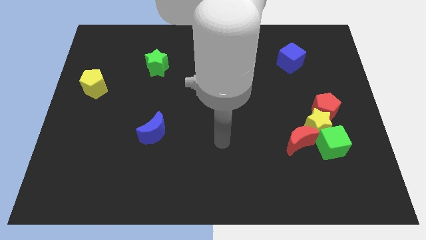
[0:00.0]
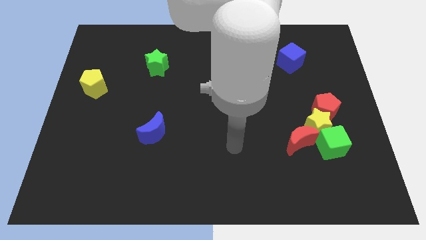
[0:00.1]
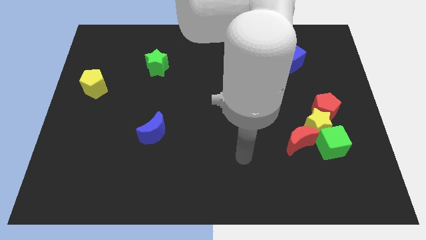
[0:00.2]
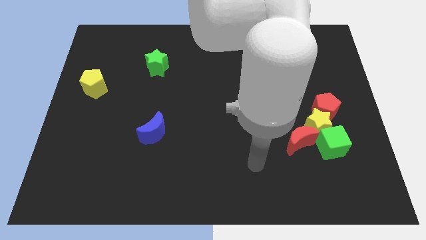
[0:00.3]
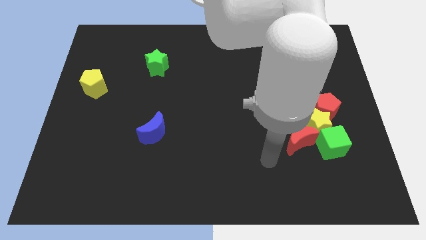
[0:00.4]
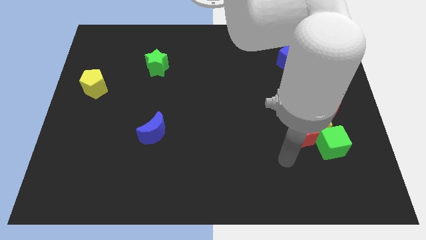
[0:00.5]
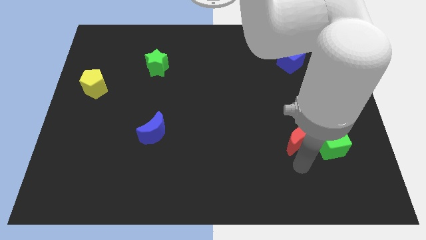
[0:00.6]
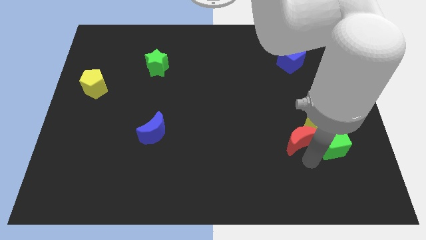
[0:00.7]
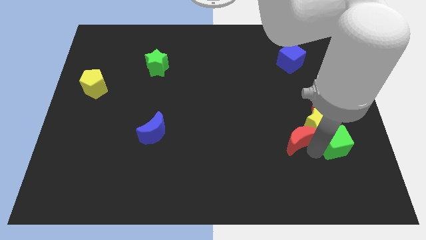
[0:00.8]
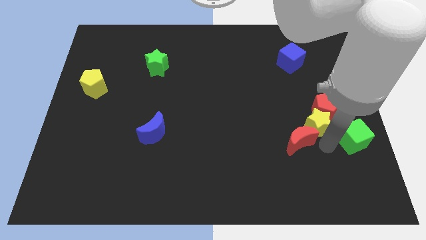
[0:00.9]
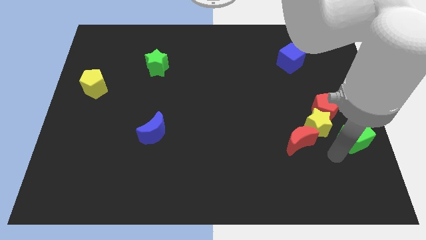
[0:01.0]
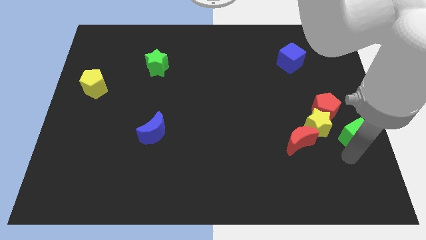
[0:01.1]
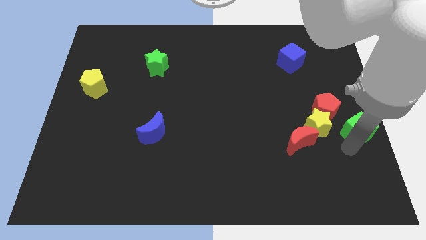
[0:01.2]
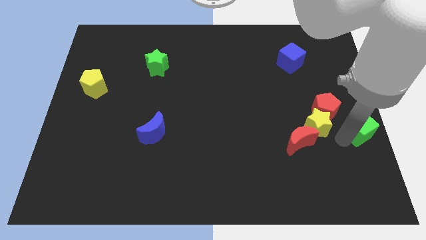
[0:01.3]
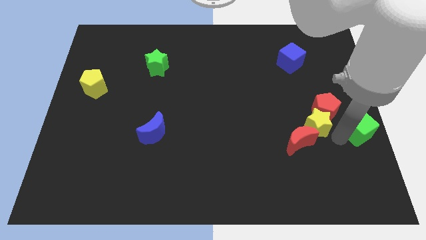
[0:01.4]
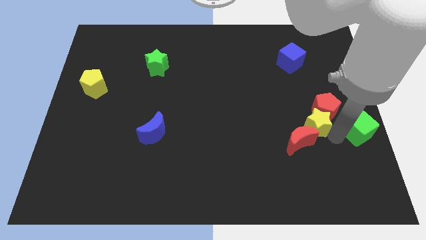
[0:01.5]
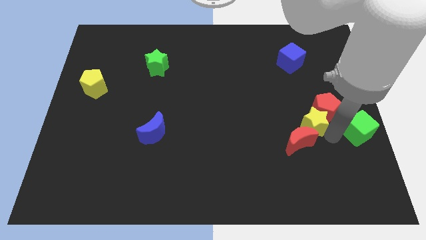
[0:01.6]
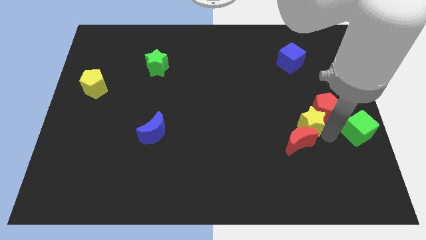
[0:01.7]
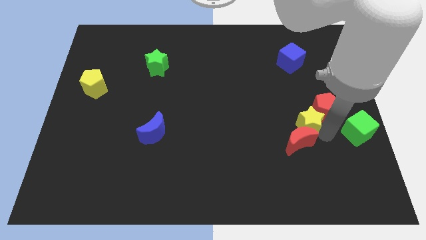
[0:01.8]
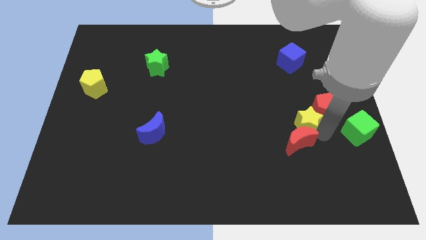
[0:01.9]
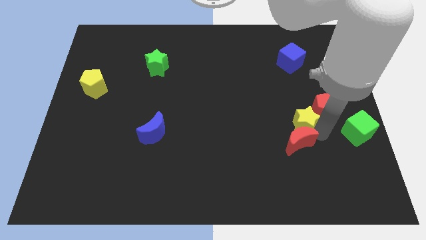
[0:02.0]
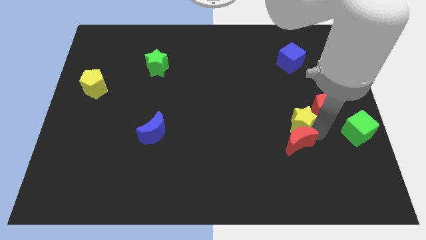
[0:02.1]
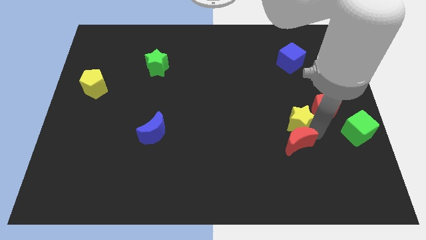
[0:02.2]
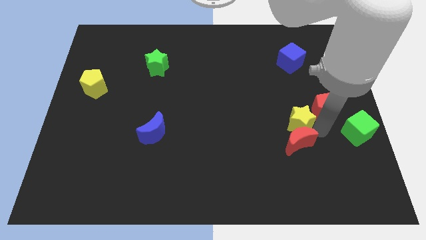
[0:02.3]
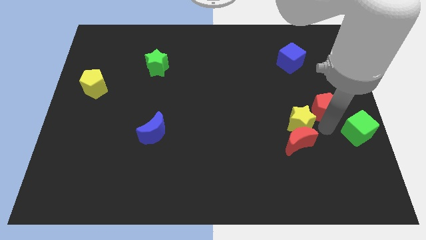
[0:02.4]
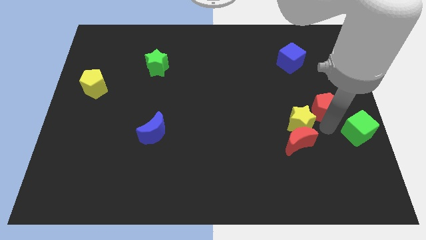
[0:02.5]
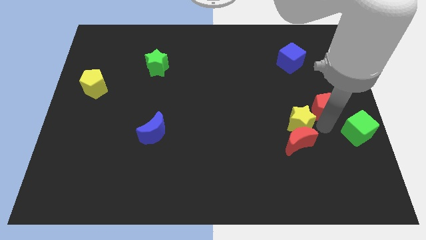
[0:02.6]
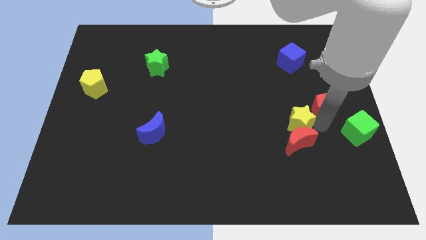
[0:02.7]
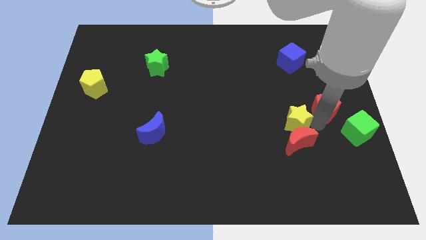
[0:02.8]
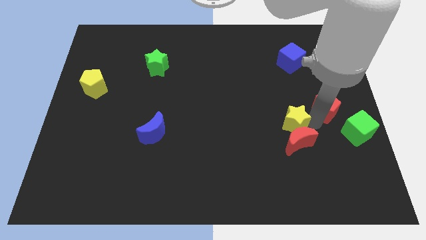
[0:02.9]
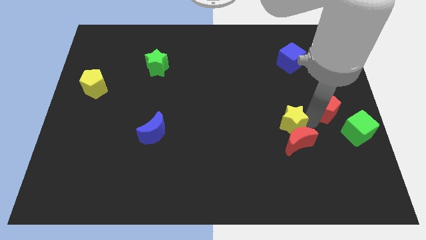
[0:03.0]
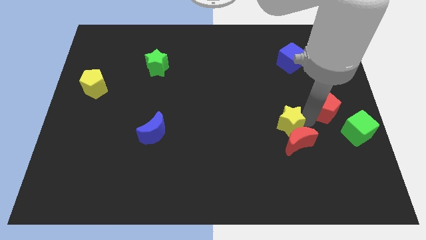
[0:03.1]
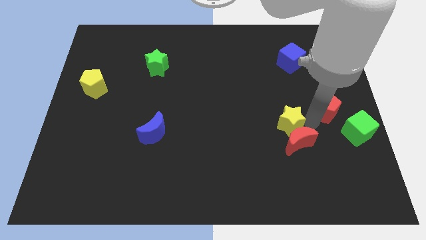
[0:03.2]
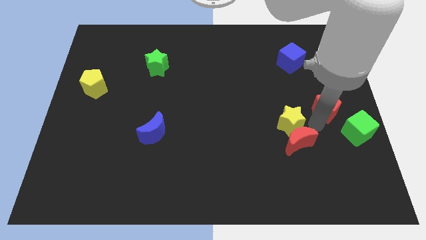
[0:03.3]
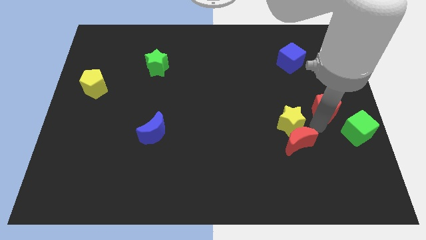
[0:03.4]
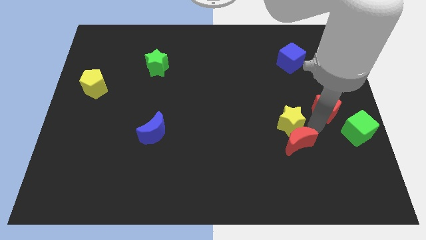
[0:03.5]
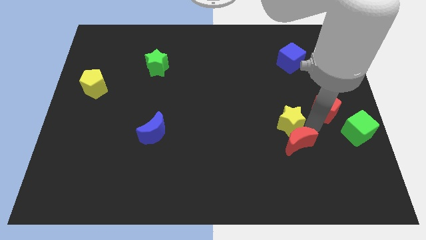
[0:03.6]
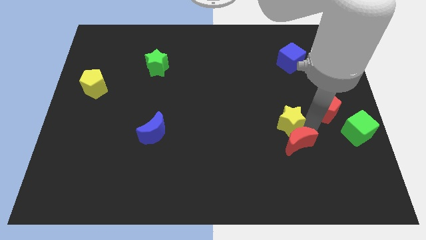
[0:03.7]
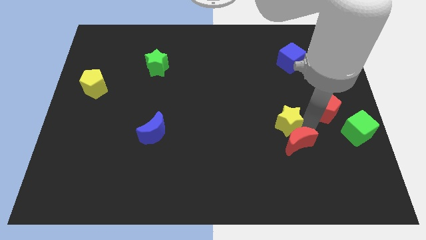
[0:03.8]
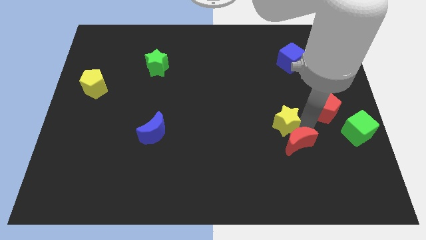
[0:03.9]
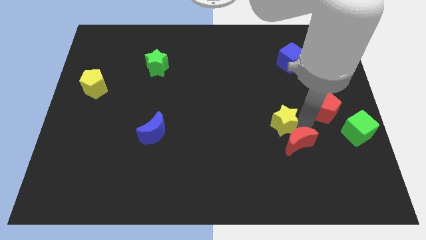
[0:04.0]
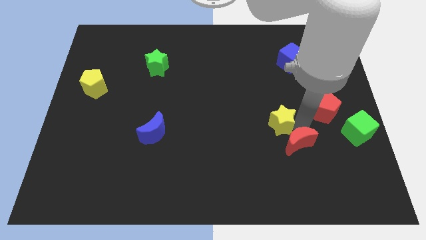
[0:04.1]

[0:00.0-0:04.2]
move the yellow star away from the red pentagon, green cube, and red moon

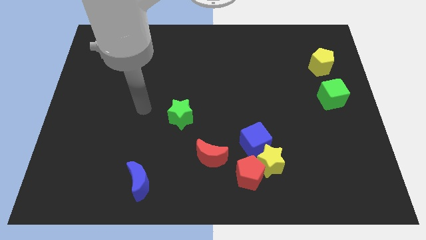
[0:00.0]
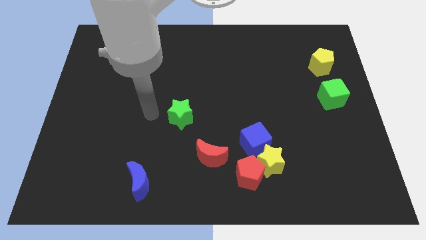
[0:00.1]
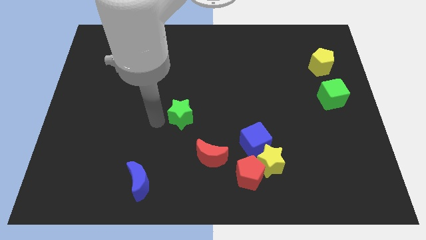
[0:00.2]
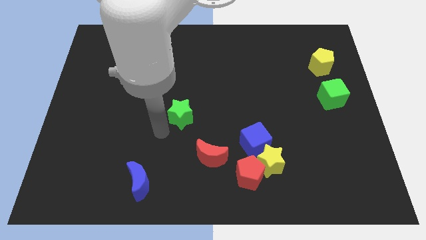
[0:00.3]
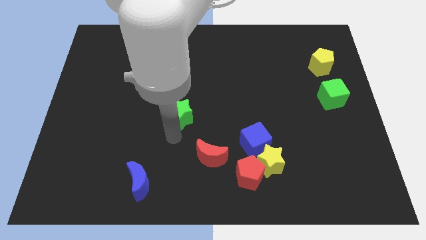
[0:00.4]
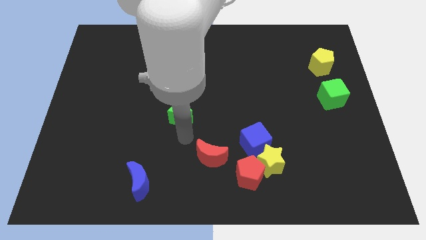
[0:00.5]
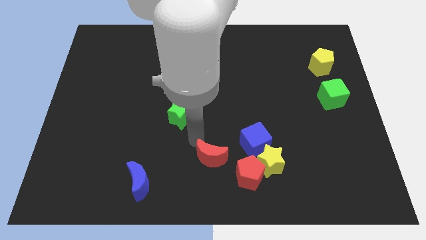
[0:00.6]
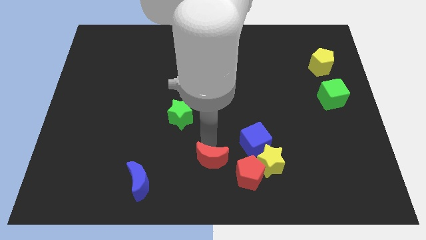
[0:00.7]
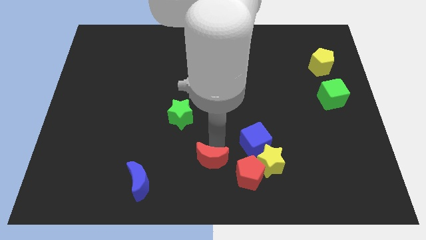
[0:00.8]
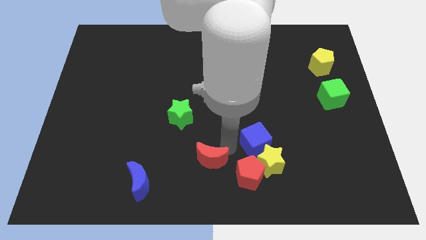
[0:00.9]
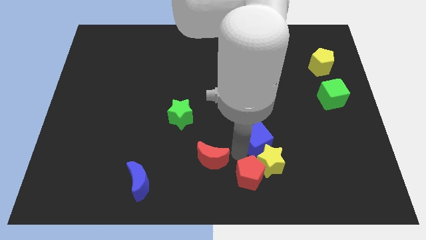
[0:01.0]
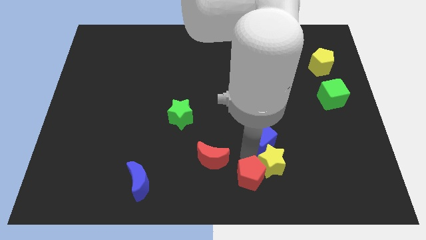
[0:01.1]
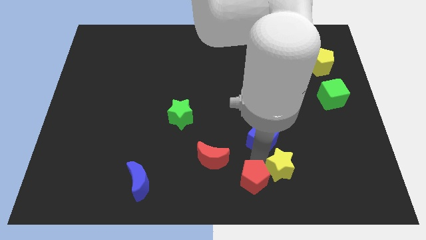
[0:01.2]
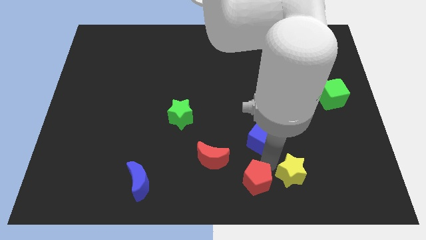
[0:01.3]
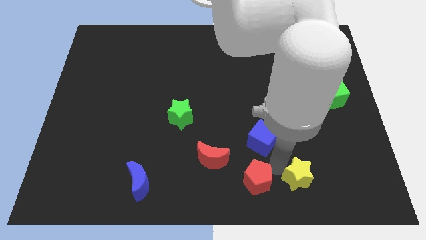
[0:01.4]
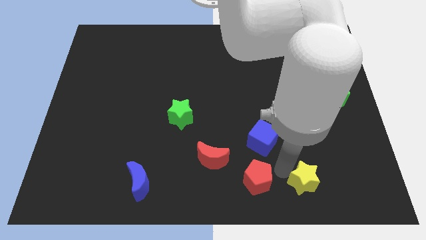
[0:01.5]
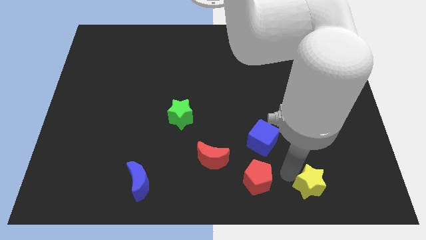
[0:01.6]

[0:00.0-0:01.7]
move the yellow star away from the red pentagon and blue cube

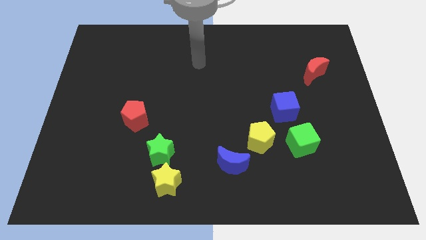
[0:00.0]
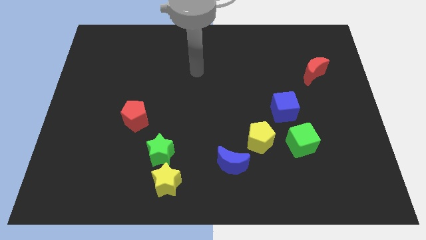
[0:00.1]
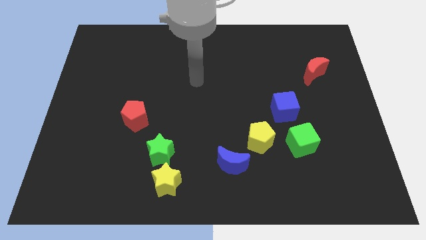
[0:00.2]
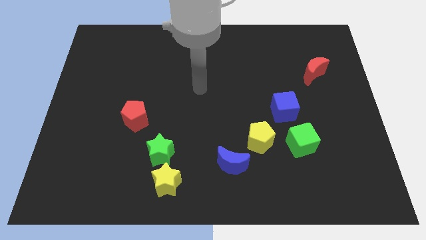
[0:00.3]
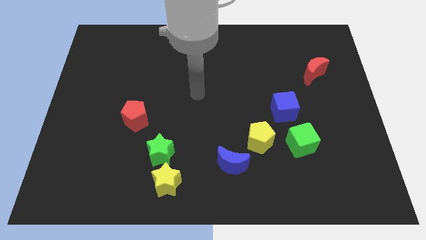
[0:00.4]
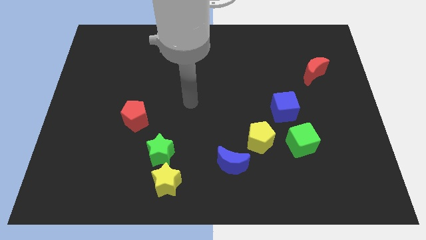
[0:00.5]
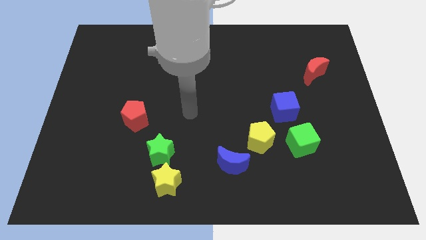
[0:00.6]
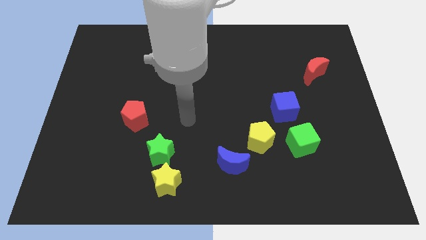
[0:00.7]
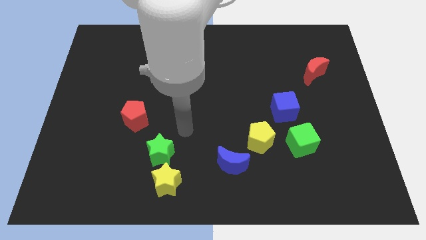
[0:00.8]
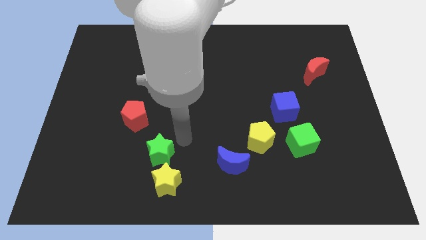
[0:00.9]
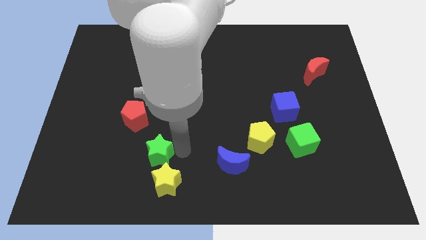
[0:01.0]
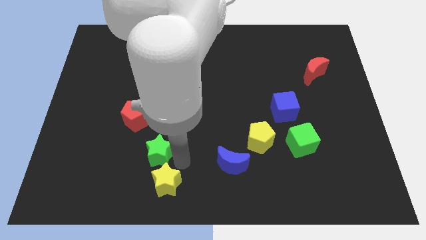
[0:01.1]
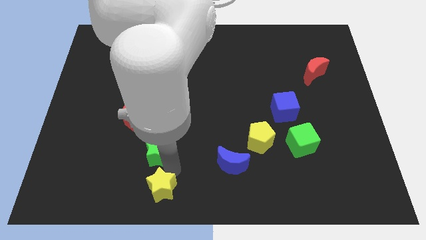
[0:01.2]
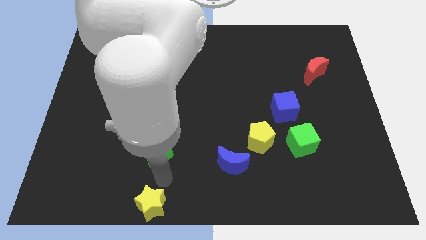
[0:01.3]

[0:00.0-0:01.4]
pull the green star apart from the yellow star

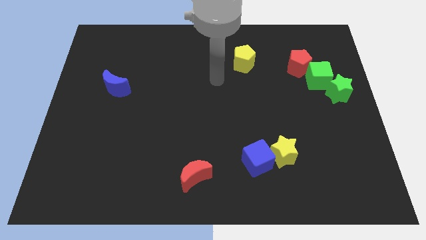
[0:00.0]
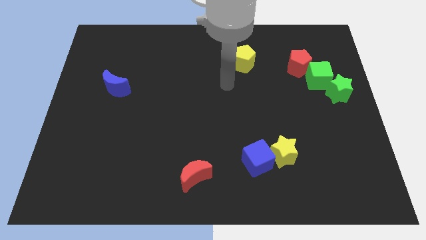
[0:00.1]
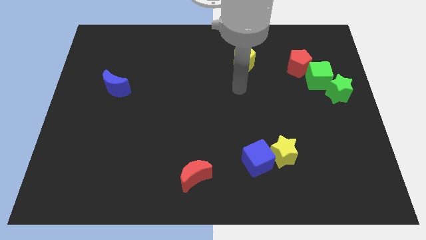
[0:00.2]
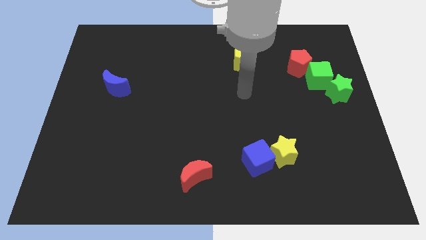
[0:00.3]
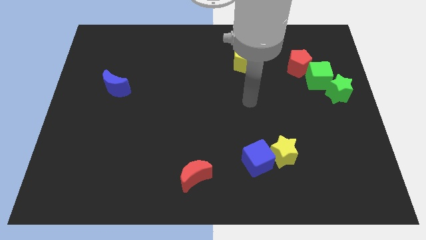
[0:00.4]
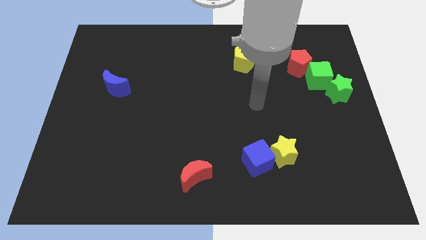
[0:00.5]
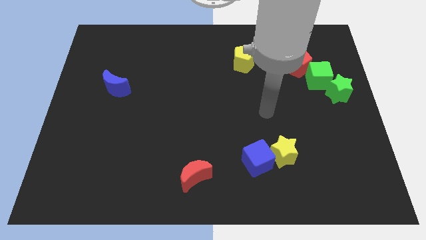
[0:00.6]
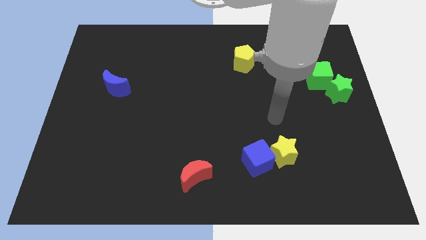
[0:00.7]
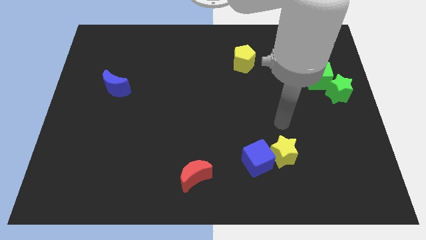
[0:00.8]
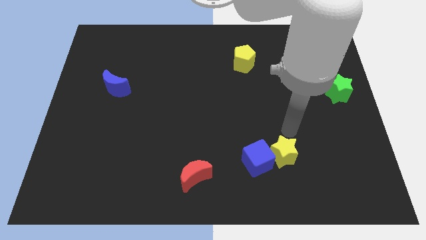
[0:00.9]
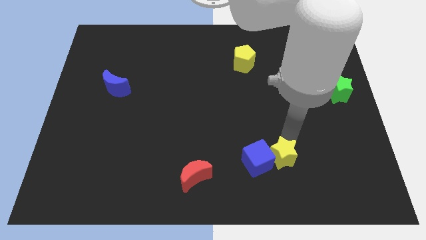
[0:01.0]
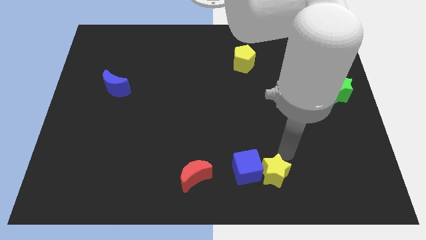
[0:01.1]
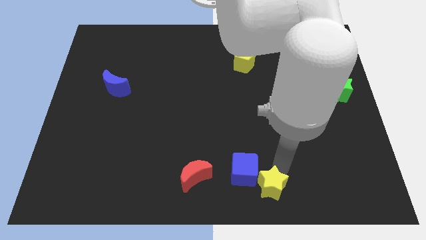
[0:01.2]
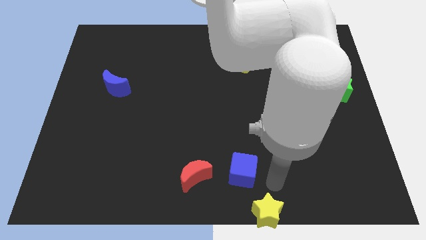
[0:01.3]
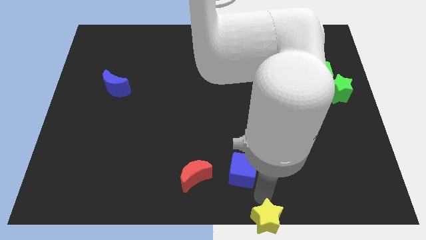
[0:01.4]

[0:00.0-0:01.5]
pull the blue cube apart from the yellow star

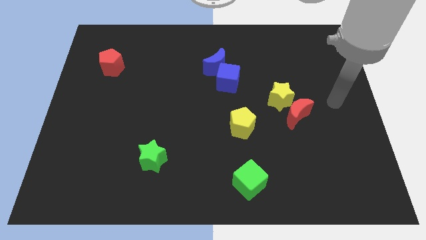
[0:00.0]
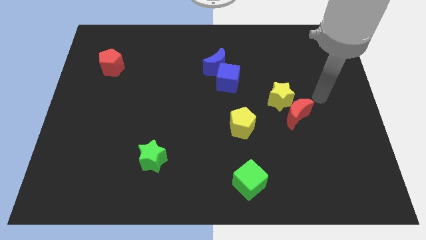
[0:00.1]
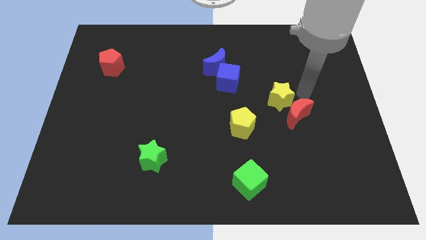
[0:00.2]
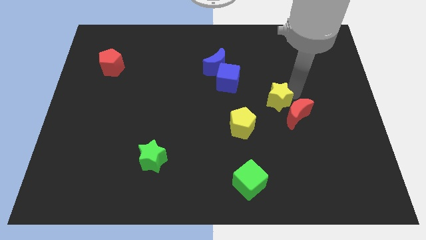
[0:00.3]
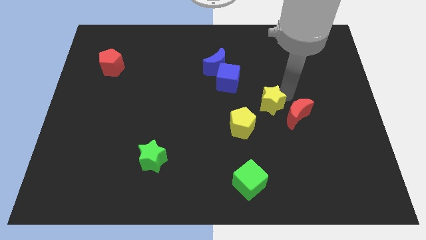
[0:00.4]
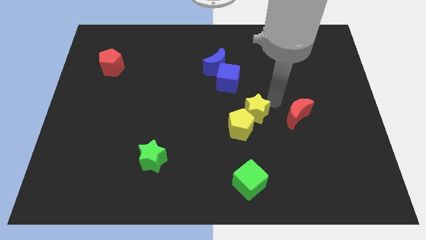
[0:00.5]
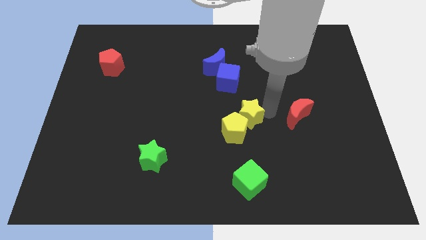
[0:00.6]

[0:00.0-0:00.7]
separate the red moon from the yellow star
